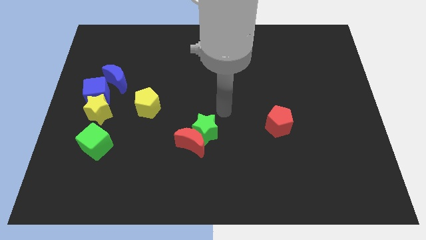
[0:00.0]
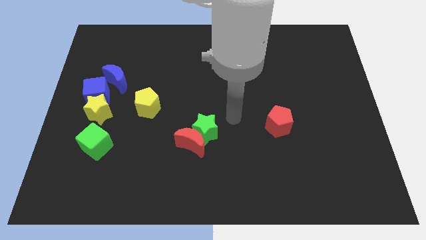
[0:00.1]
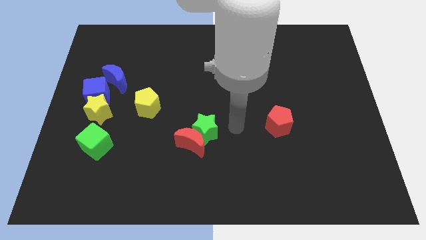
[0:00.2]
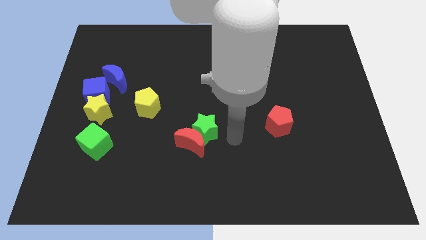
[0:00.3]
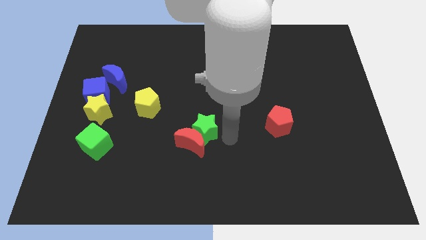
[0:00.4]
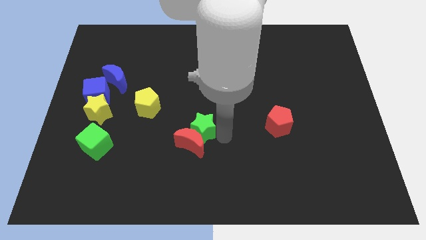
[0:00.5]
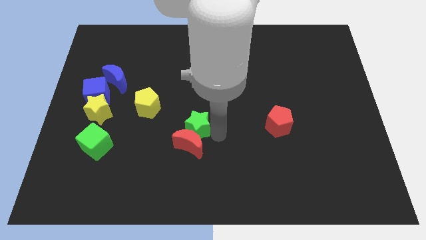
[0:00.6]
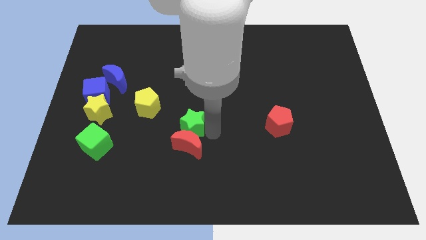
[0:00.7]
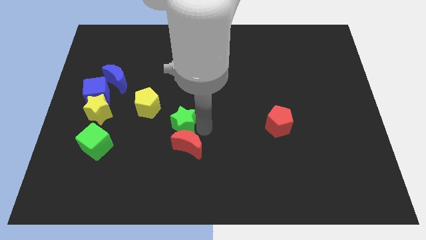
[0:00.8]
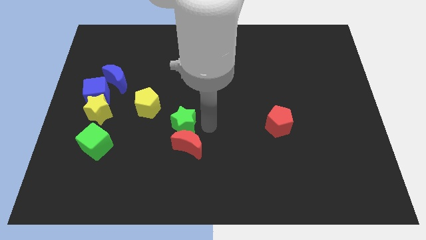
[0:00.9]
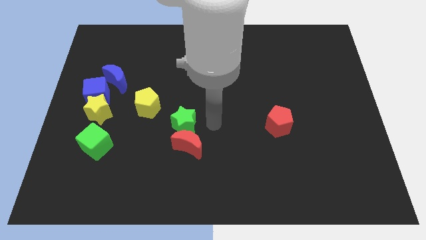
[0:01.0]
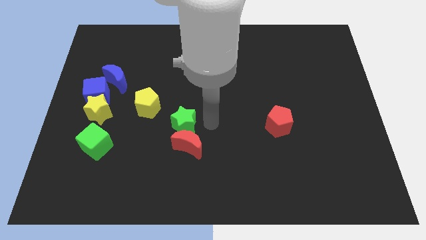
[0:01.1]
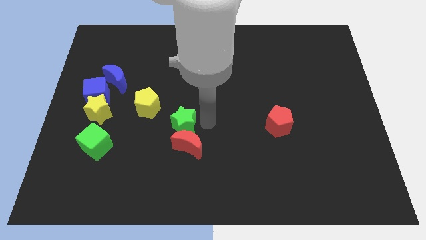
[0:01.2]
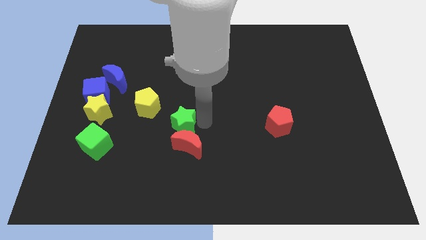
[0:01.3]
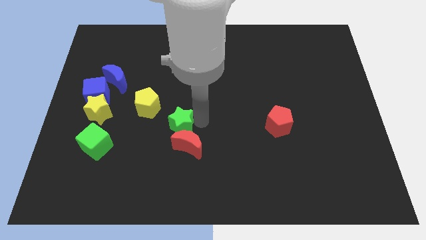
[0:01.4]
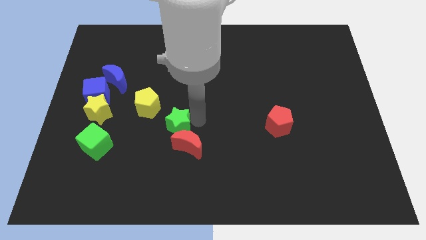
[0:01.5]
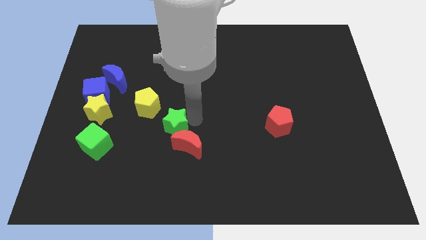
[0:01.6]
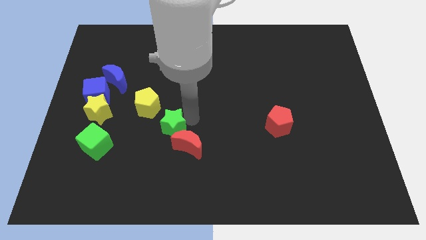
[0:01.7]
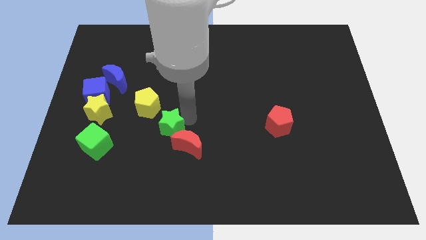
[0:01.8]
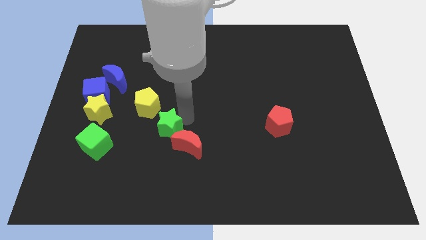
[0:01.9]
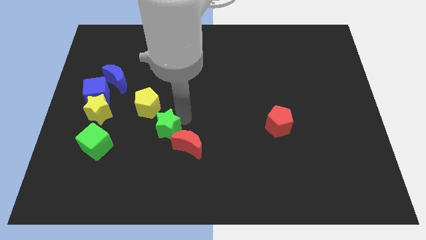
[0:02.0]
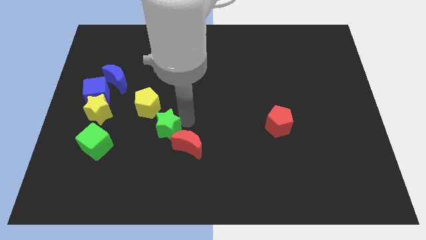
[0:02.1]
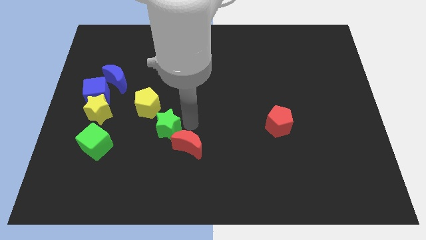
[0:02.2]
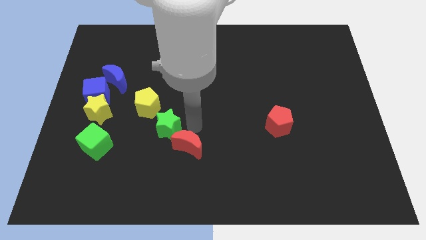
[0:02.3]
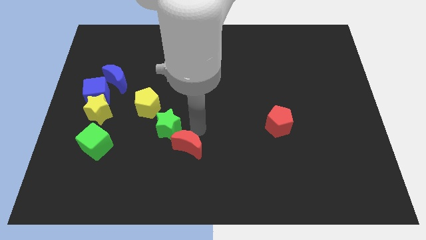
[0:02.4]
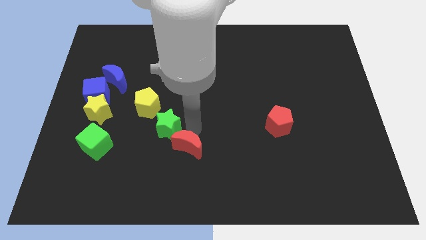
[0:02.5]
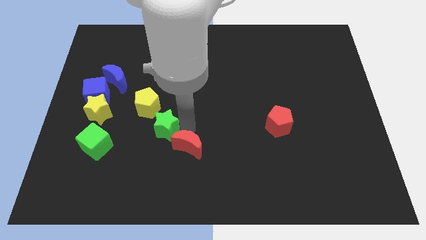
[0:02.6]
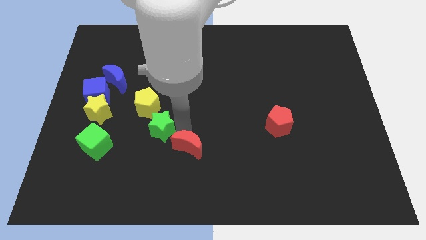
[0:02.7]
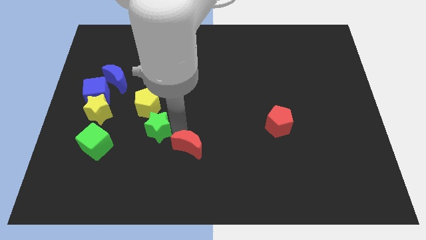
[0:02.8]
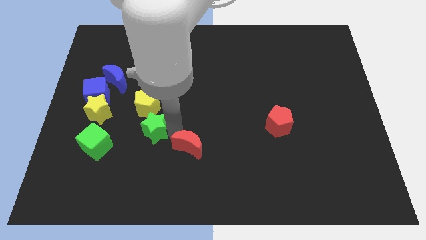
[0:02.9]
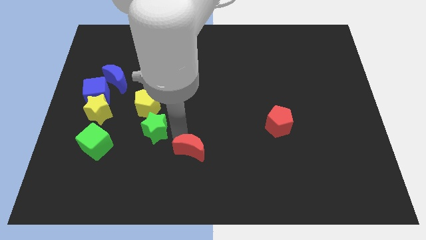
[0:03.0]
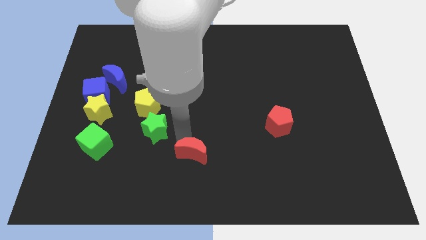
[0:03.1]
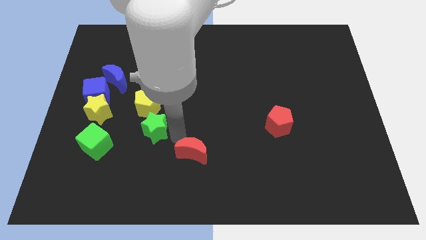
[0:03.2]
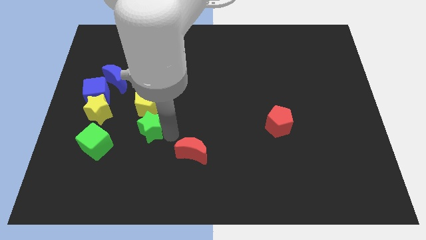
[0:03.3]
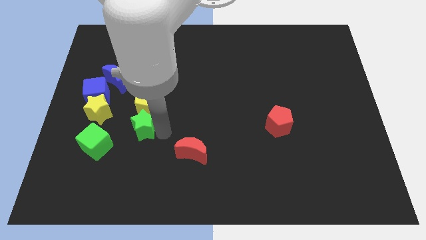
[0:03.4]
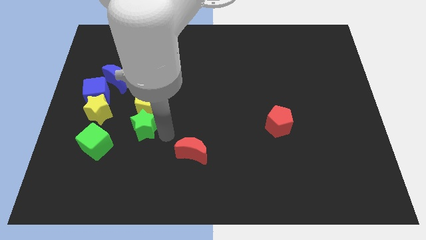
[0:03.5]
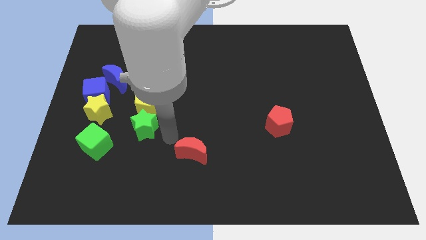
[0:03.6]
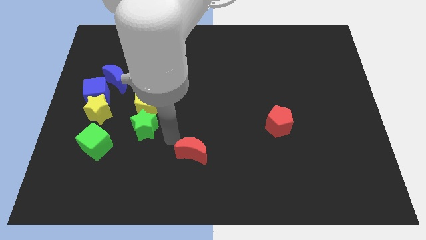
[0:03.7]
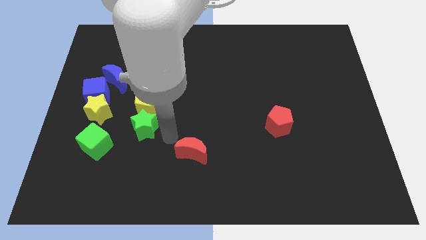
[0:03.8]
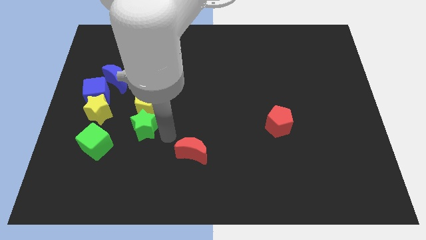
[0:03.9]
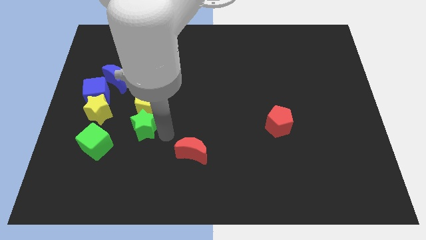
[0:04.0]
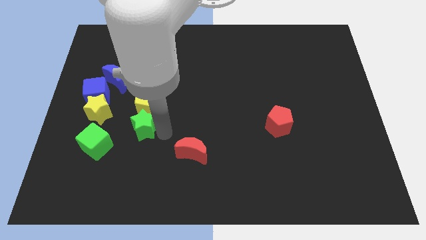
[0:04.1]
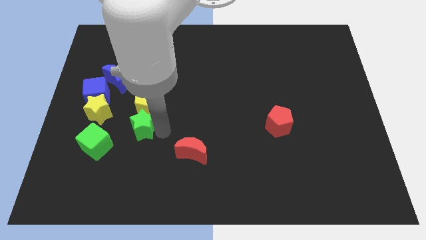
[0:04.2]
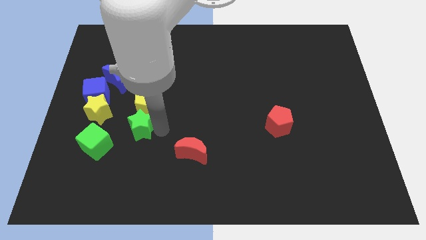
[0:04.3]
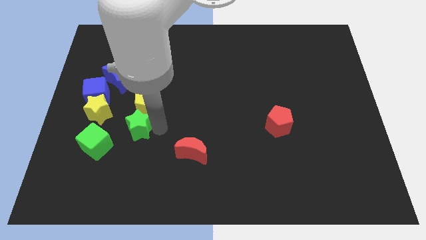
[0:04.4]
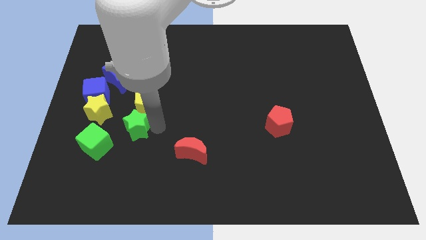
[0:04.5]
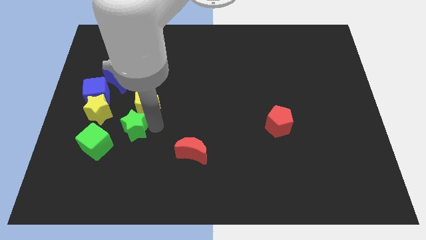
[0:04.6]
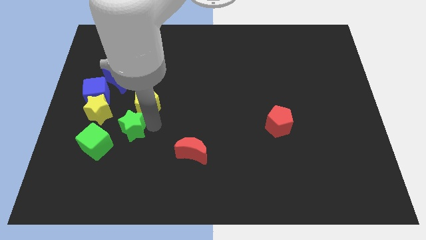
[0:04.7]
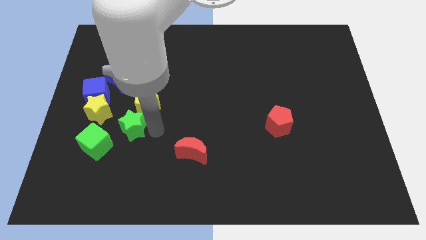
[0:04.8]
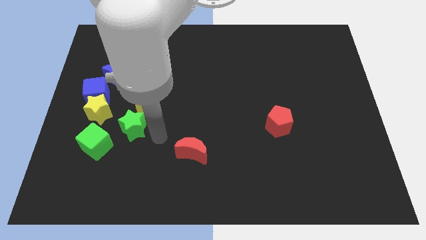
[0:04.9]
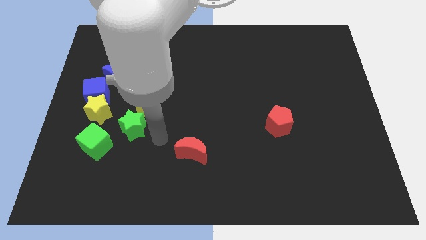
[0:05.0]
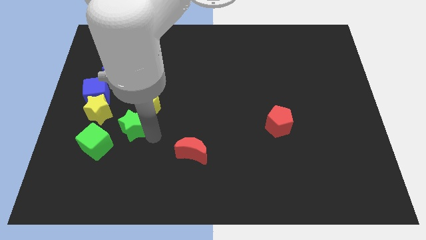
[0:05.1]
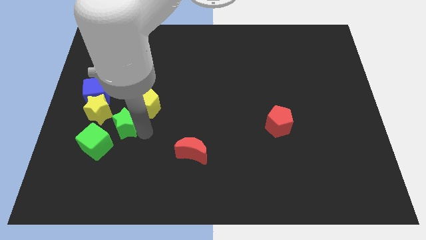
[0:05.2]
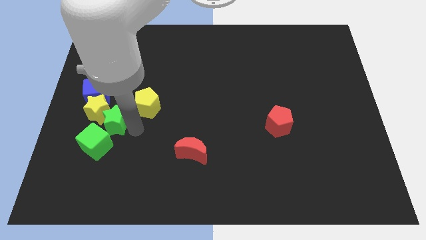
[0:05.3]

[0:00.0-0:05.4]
put the green star to the yellow star

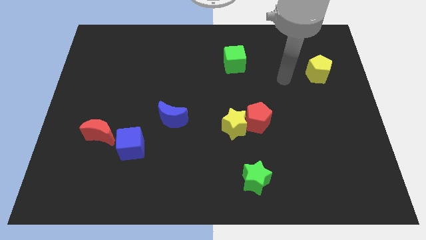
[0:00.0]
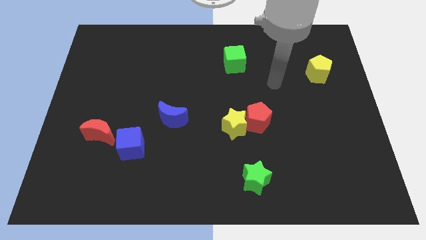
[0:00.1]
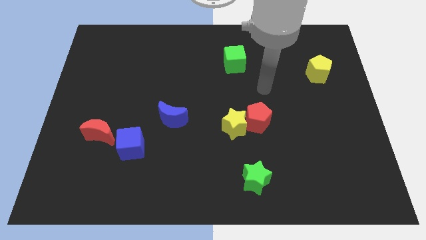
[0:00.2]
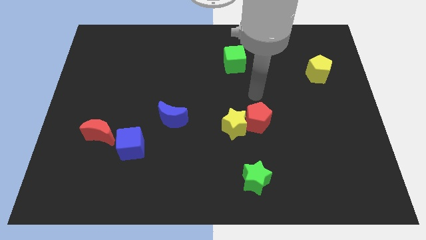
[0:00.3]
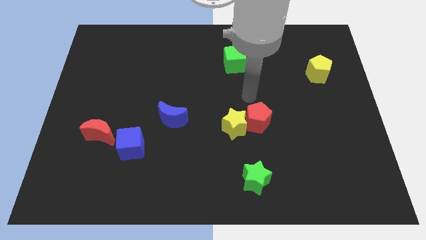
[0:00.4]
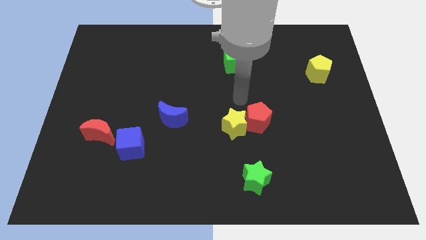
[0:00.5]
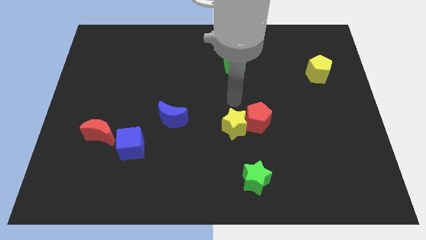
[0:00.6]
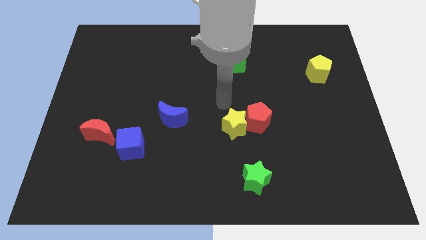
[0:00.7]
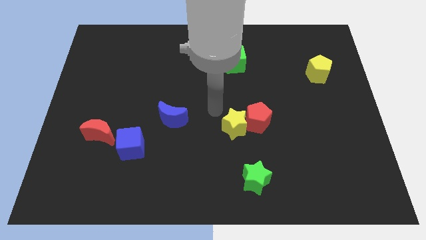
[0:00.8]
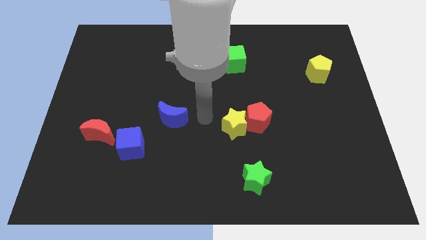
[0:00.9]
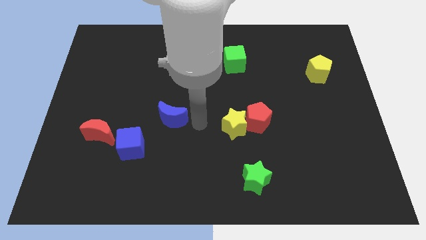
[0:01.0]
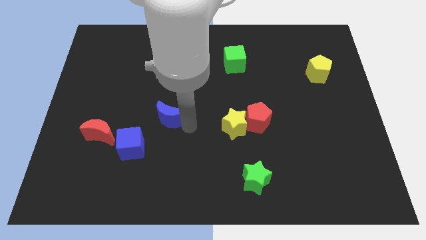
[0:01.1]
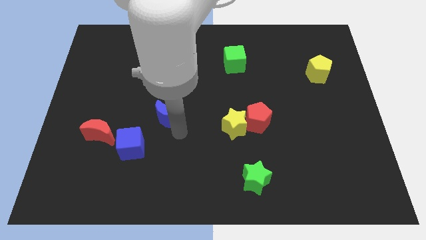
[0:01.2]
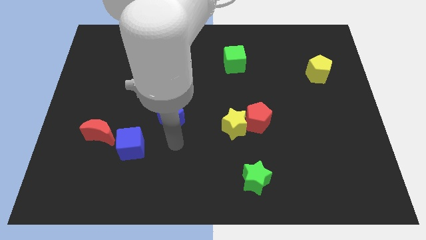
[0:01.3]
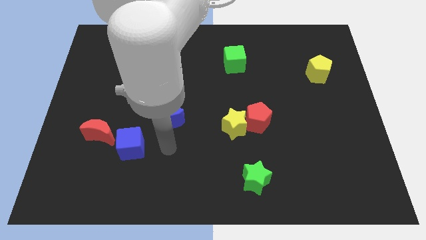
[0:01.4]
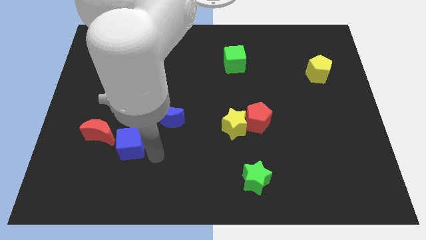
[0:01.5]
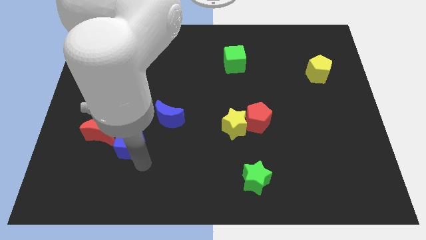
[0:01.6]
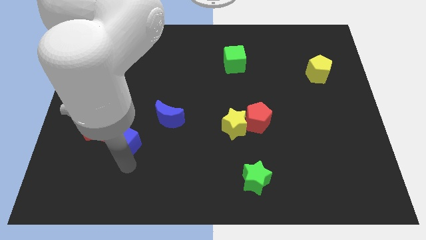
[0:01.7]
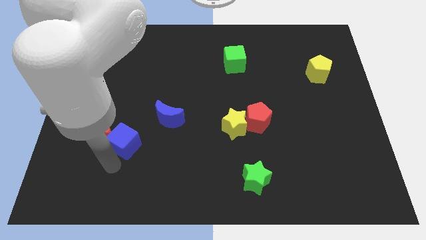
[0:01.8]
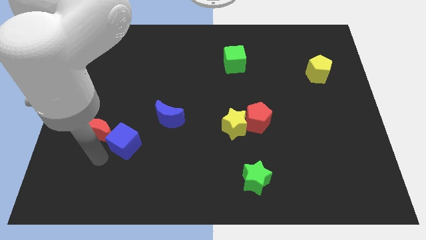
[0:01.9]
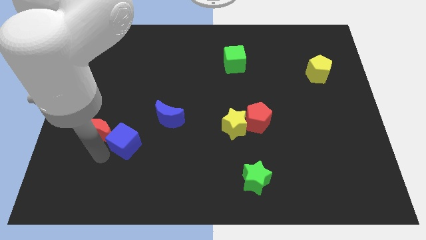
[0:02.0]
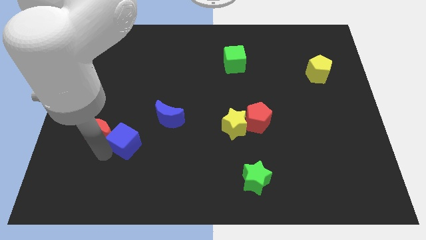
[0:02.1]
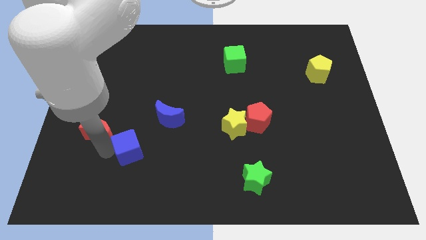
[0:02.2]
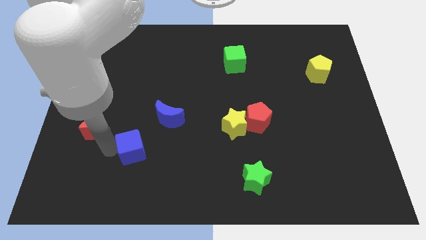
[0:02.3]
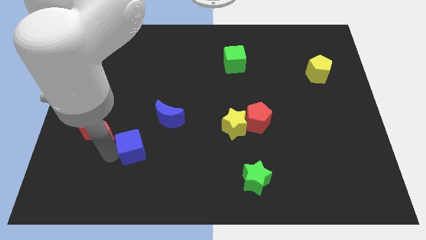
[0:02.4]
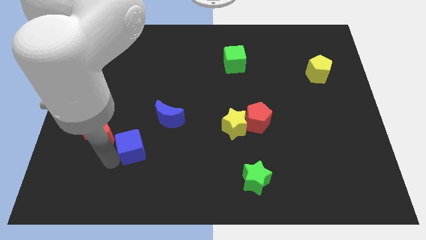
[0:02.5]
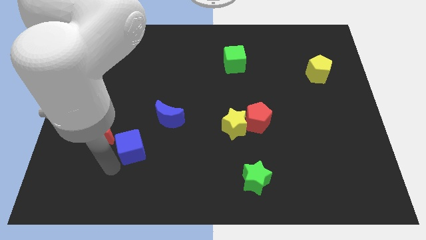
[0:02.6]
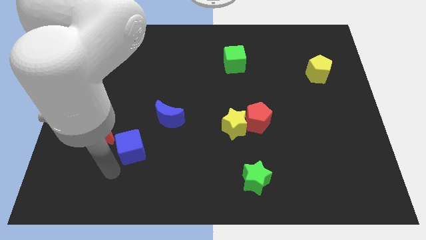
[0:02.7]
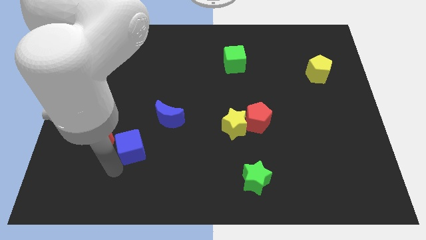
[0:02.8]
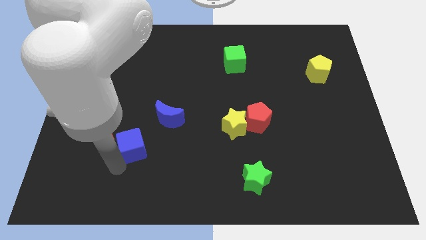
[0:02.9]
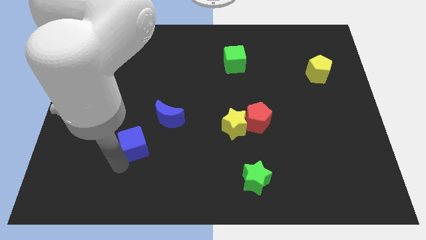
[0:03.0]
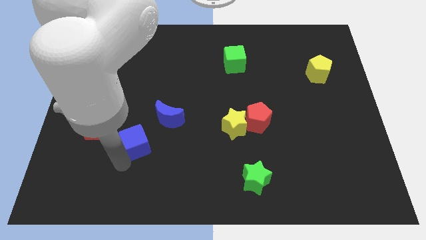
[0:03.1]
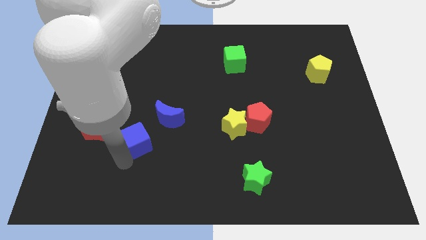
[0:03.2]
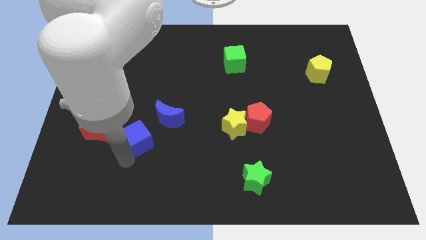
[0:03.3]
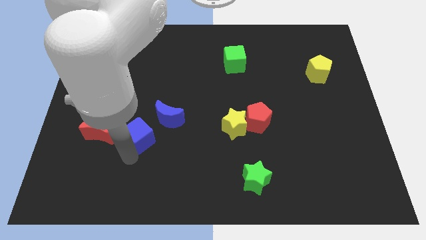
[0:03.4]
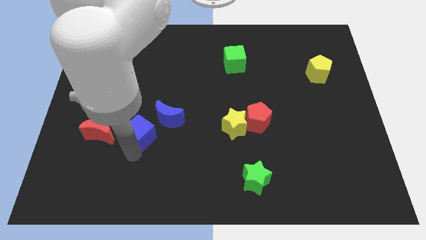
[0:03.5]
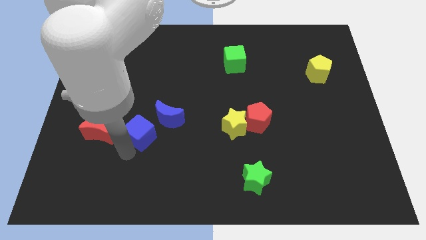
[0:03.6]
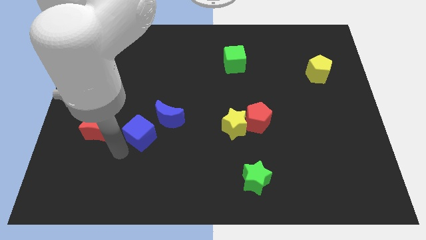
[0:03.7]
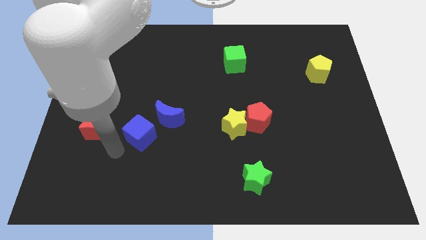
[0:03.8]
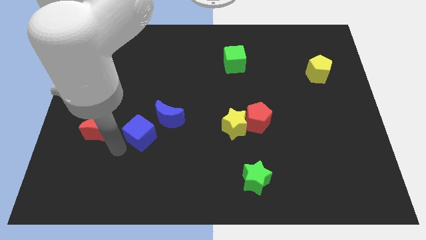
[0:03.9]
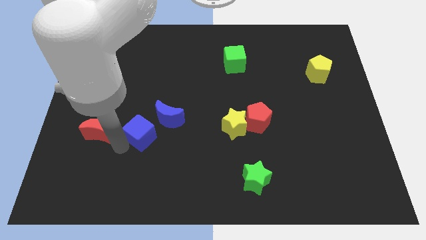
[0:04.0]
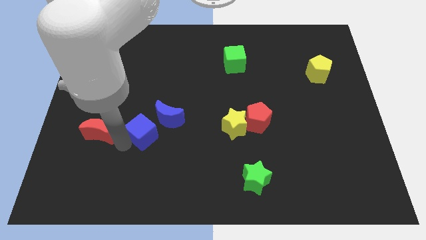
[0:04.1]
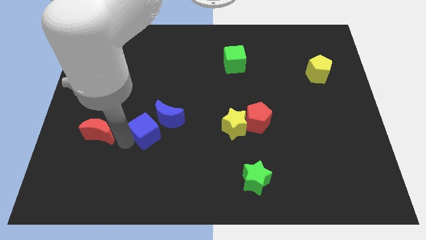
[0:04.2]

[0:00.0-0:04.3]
push the blue cube to the blue moon
